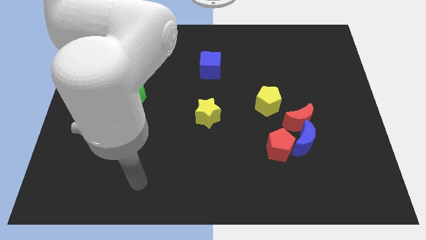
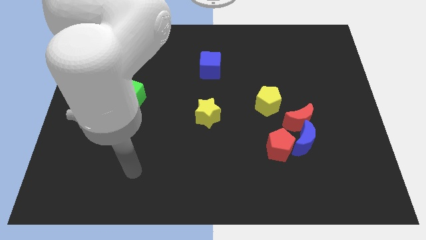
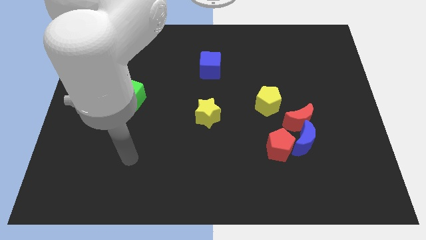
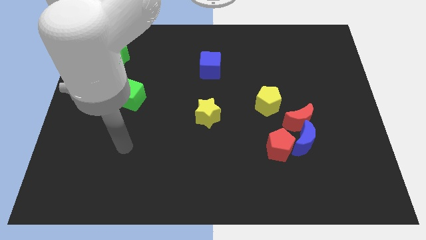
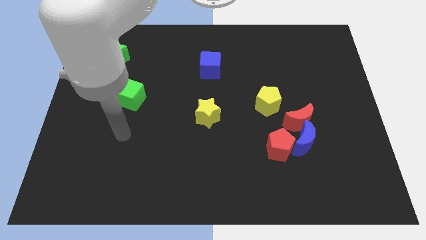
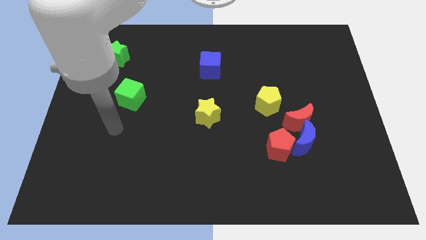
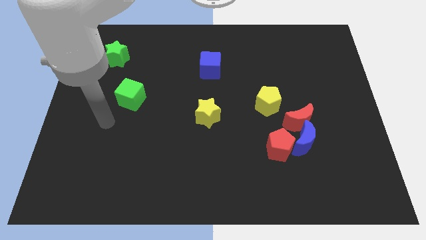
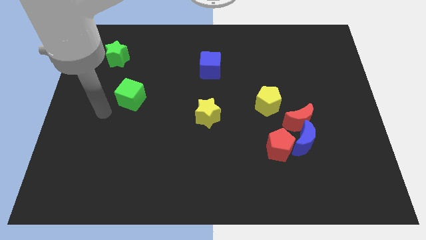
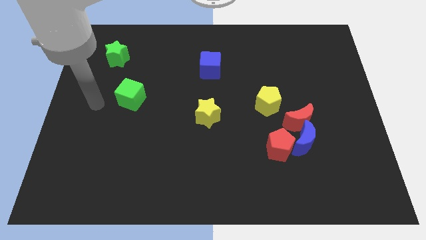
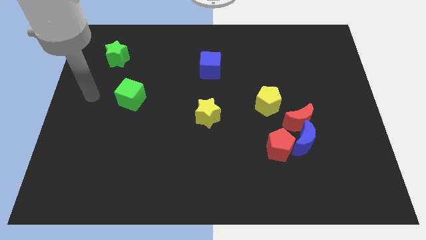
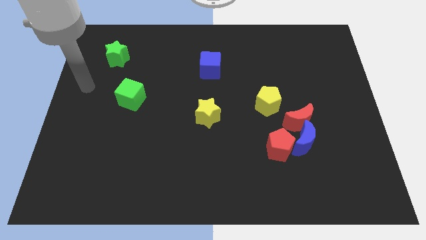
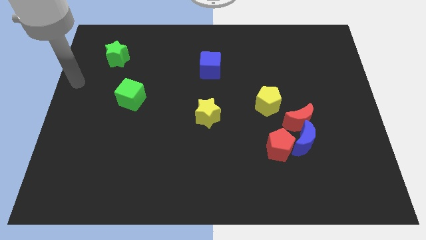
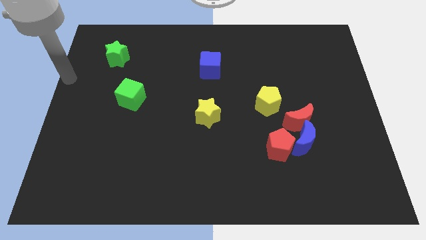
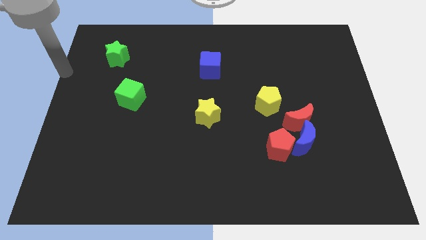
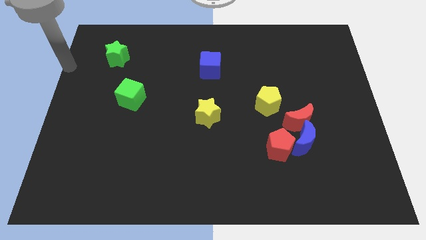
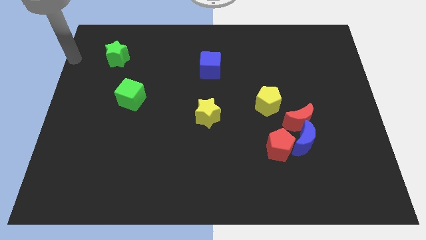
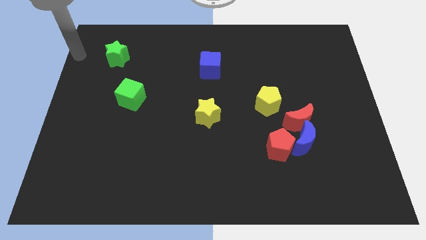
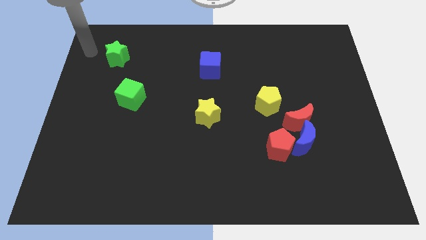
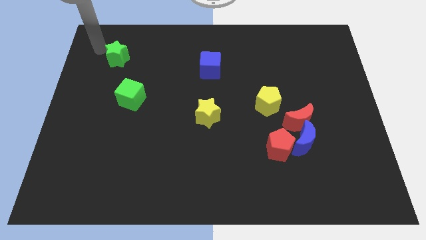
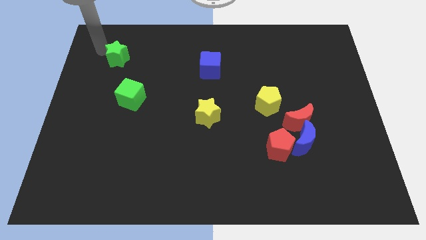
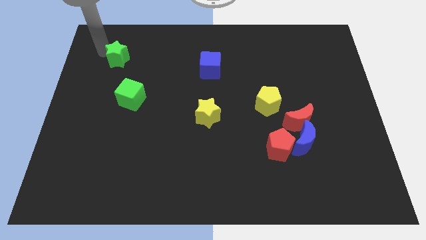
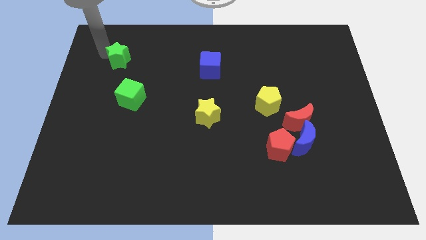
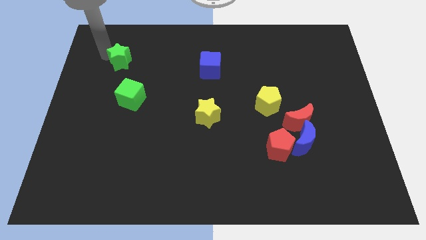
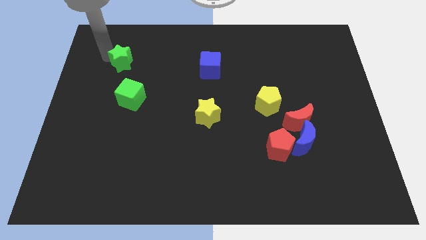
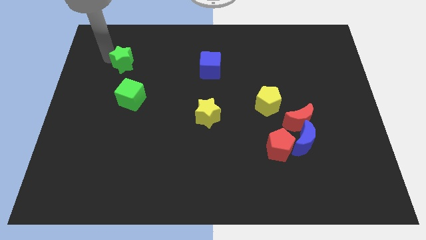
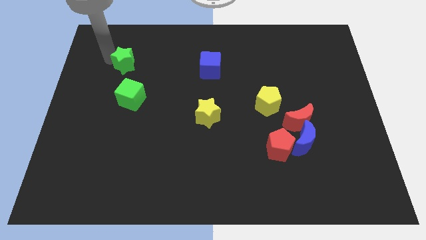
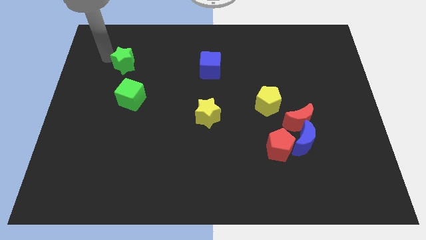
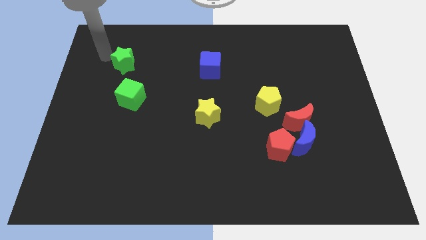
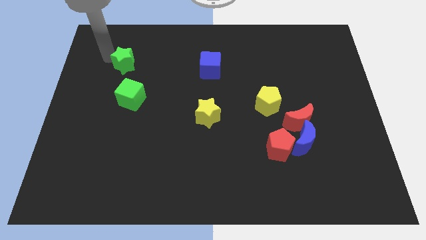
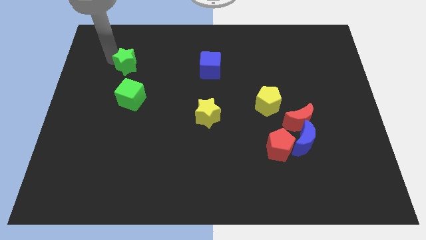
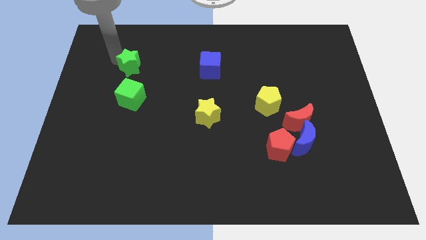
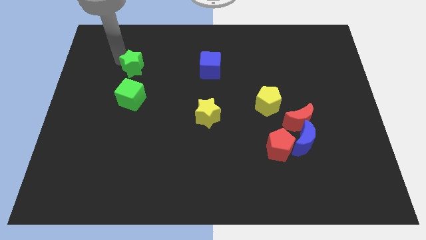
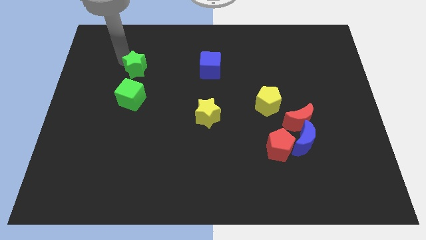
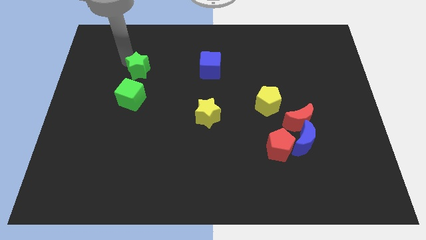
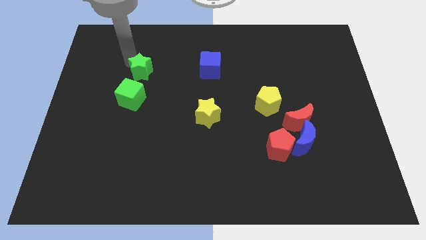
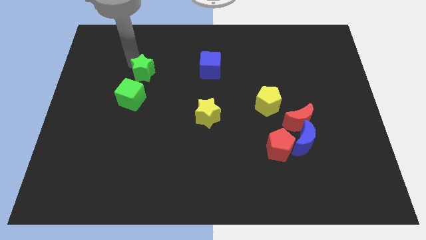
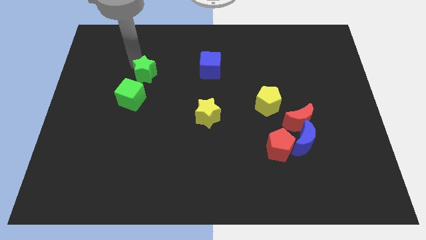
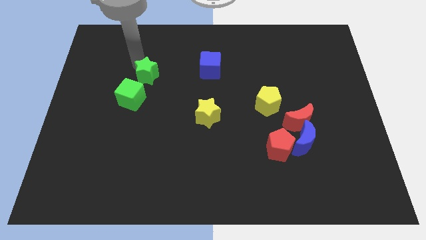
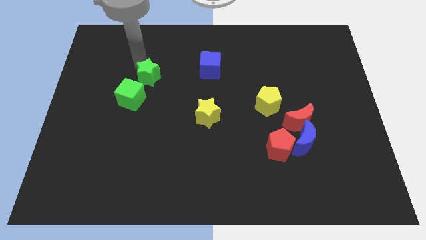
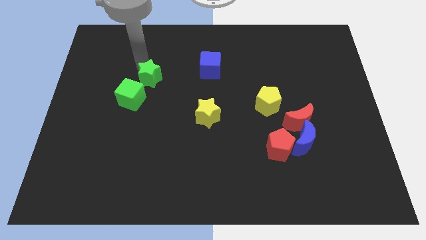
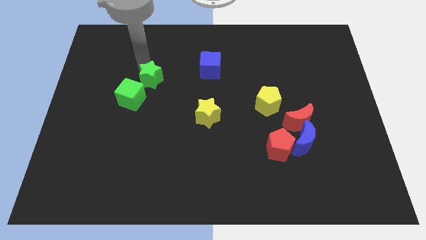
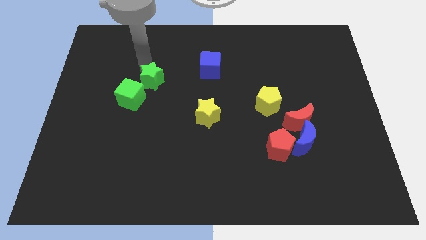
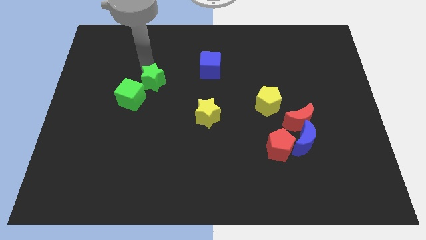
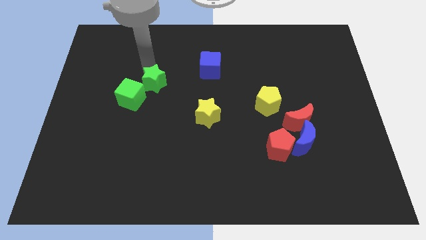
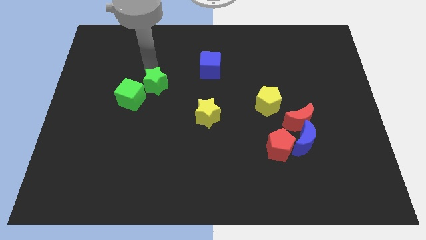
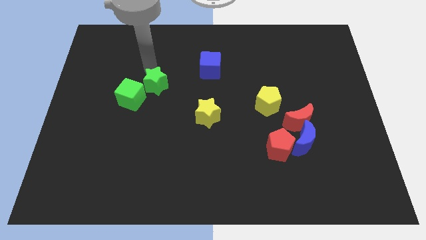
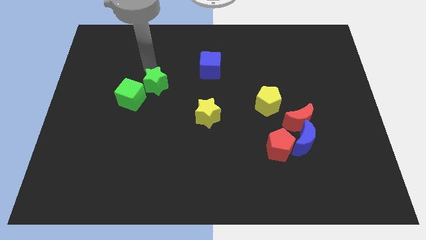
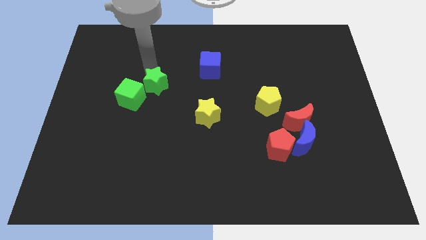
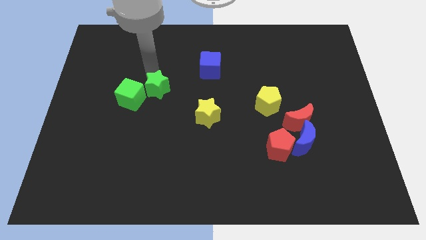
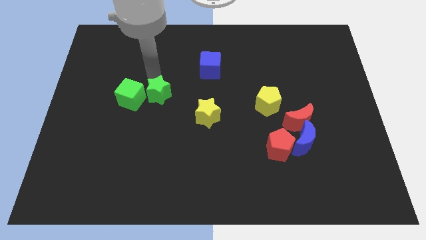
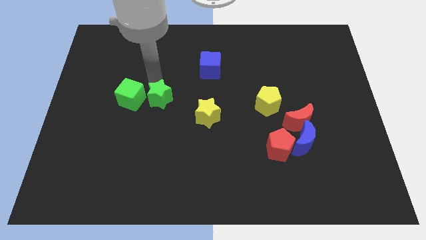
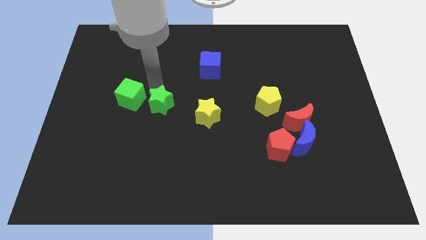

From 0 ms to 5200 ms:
move the green star down and then to the right

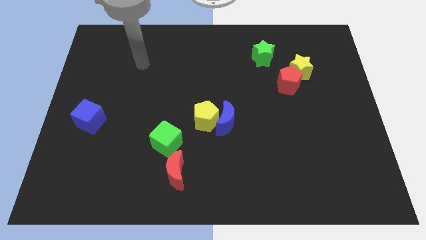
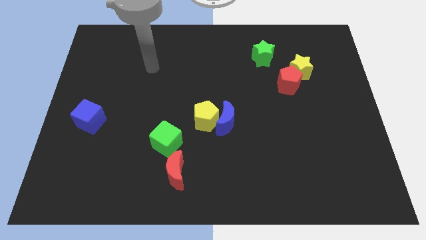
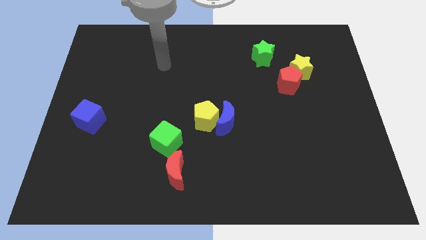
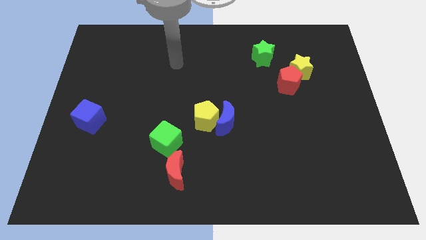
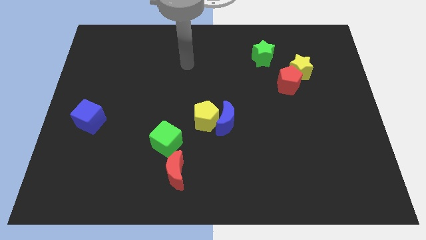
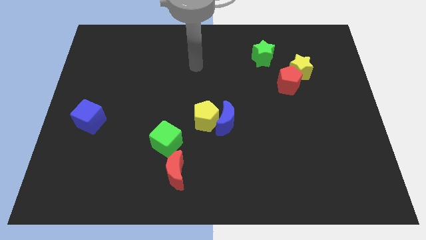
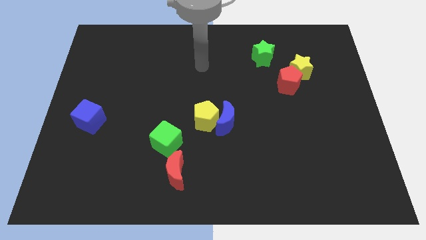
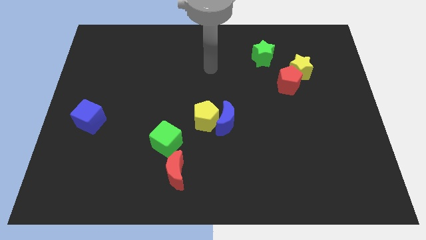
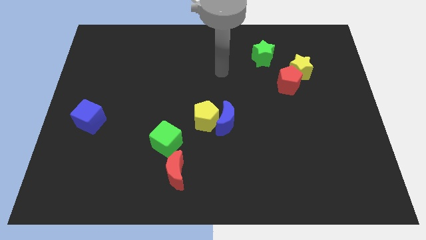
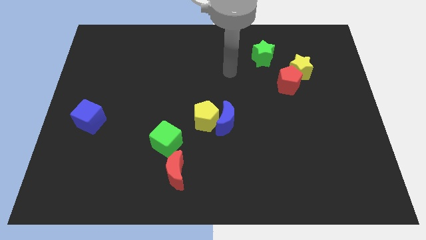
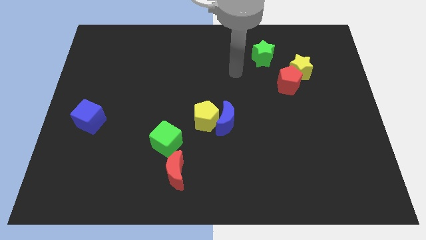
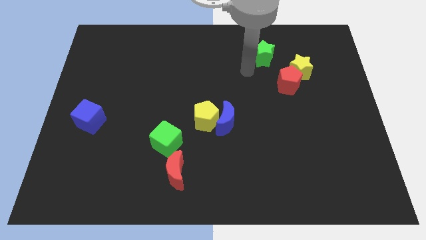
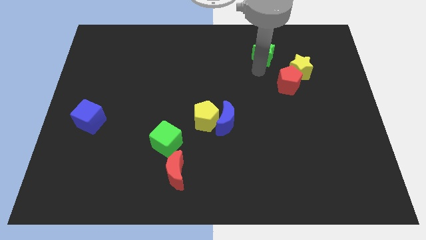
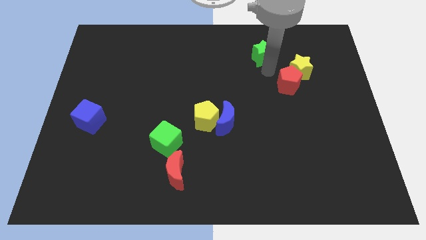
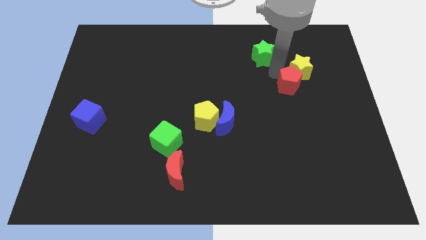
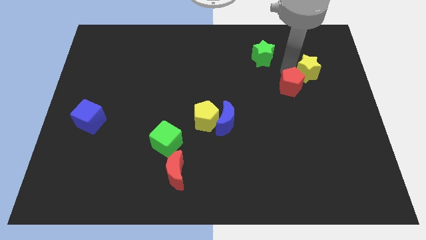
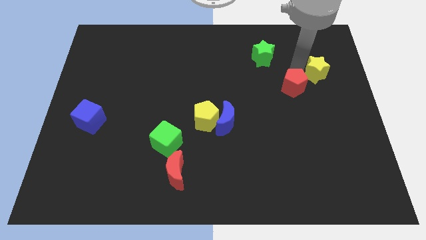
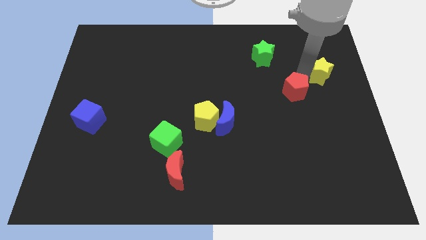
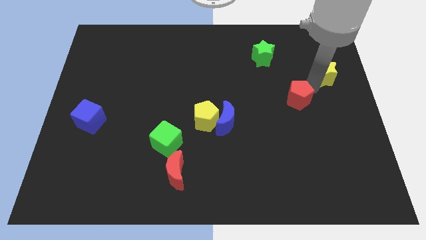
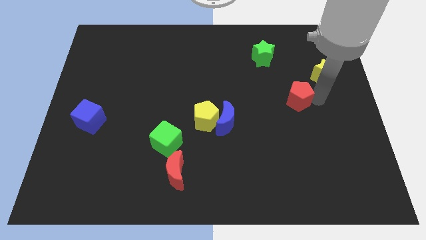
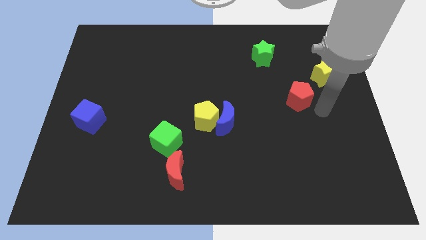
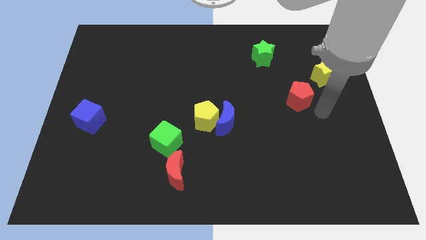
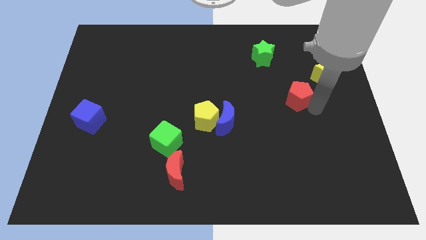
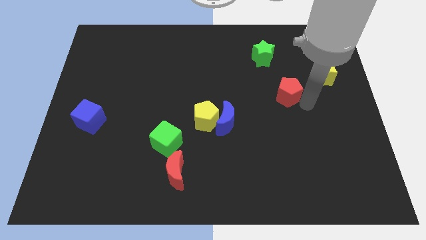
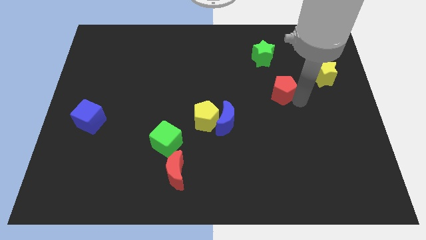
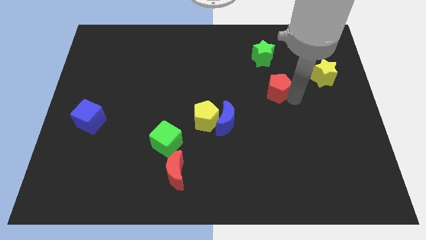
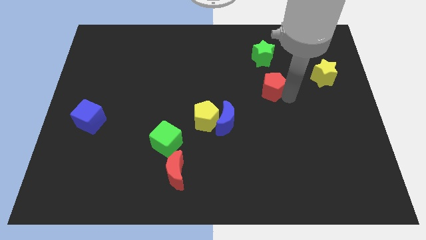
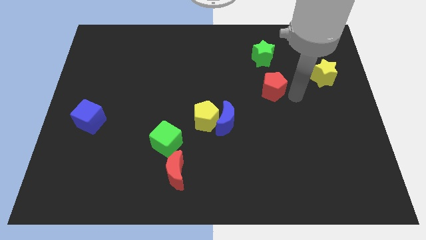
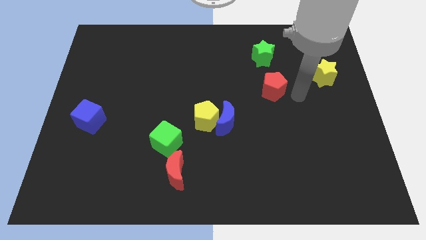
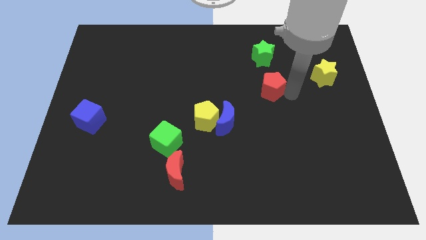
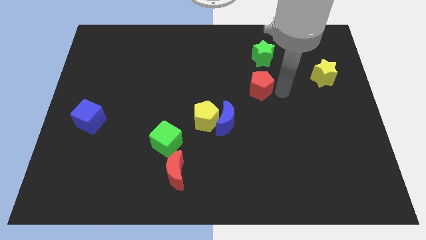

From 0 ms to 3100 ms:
slide the red pentagon somewhat left
